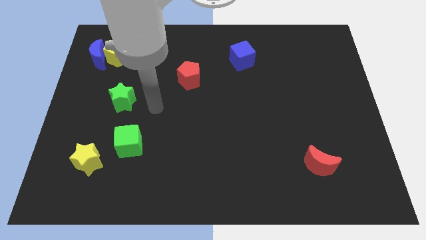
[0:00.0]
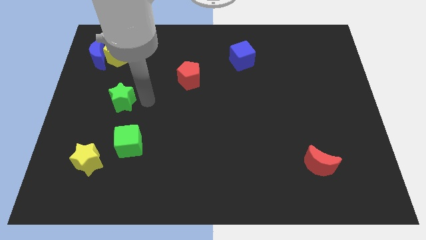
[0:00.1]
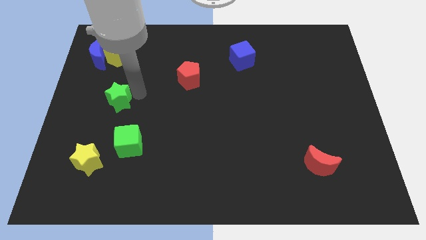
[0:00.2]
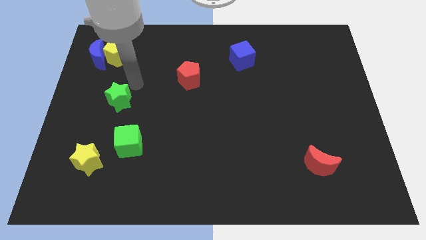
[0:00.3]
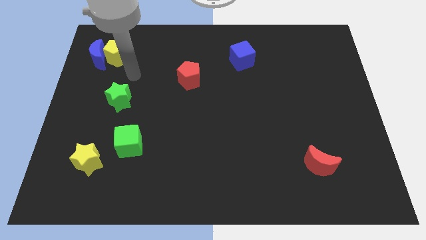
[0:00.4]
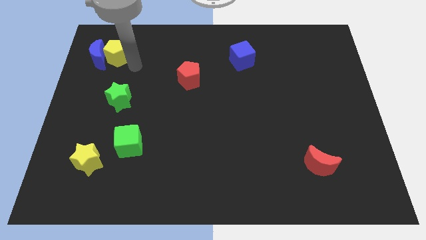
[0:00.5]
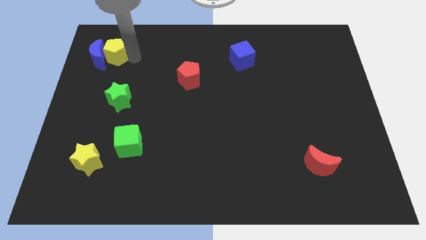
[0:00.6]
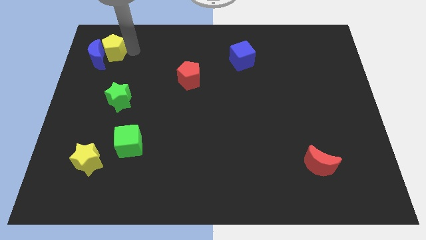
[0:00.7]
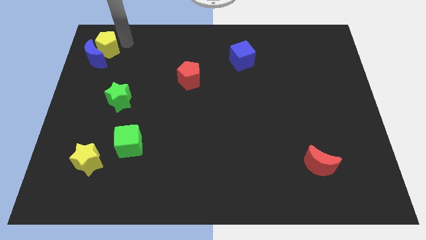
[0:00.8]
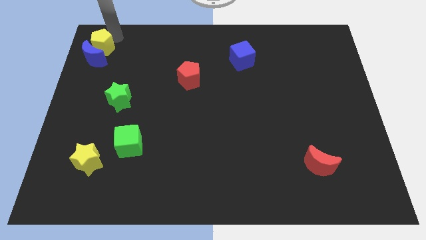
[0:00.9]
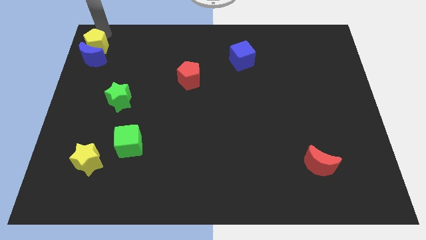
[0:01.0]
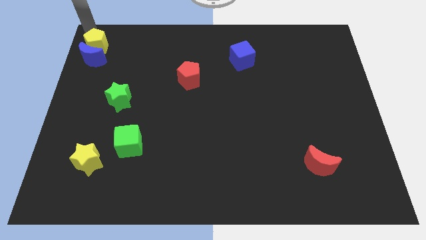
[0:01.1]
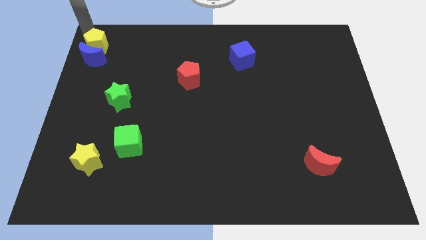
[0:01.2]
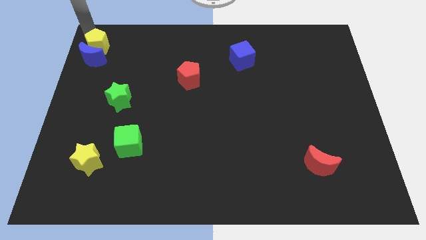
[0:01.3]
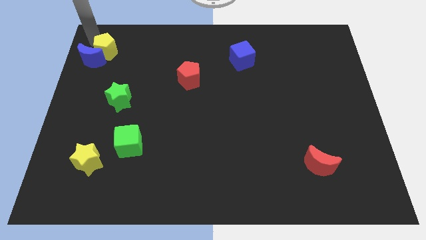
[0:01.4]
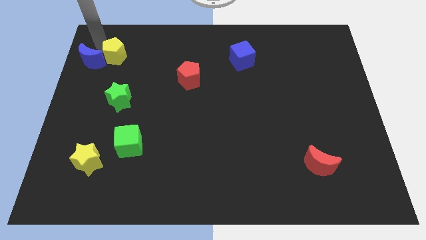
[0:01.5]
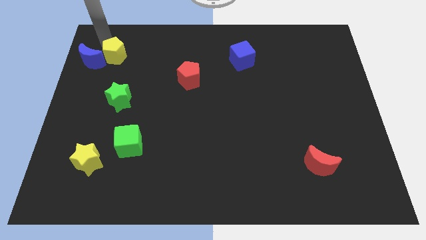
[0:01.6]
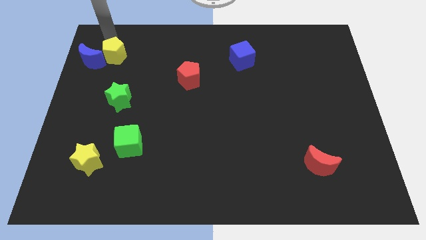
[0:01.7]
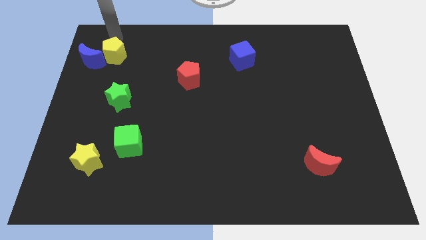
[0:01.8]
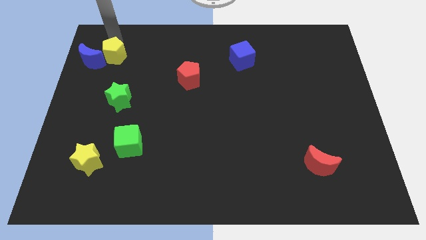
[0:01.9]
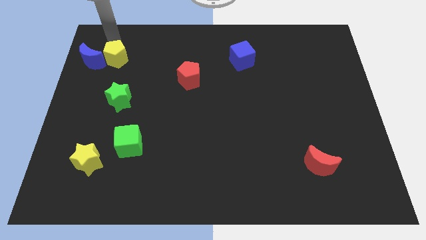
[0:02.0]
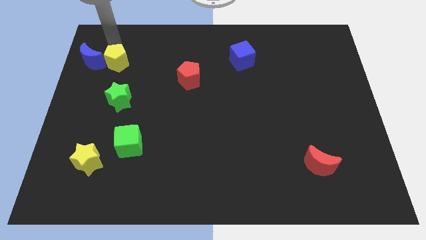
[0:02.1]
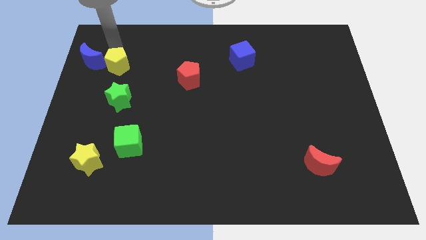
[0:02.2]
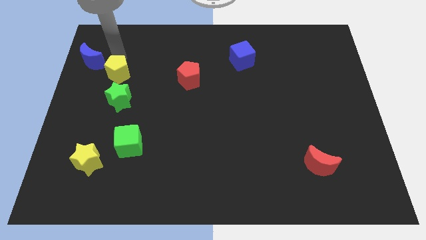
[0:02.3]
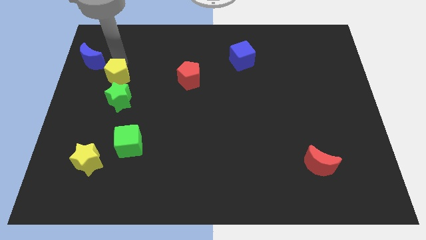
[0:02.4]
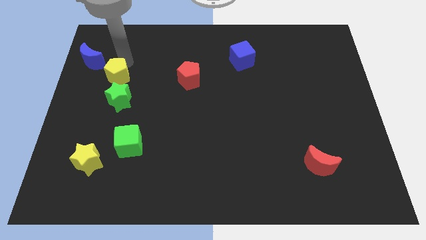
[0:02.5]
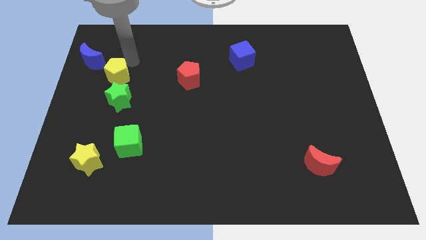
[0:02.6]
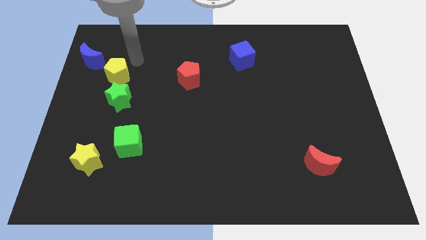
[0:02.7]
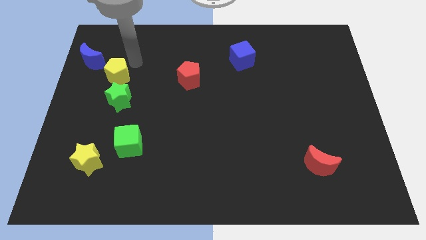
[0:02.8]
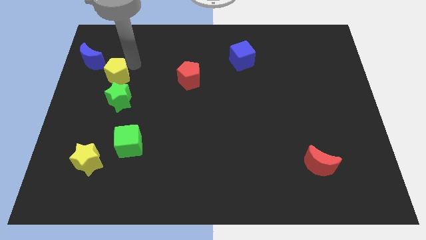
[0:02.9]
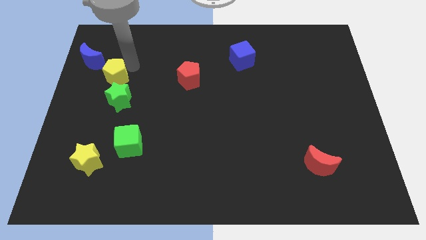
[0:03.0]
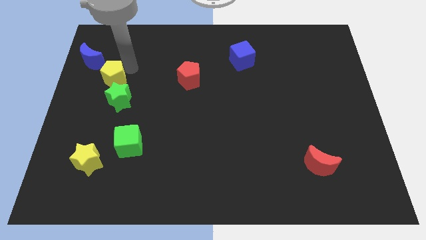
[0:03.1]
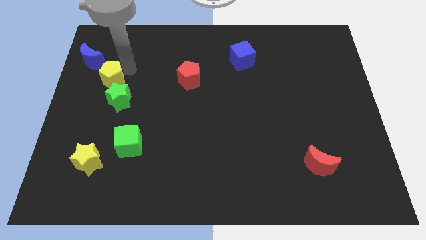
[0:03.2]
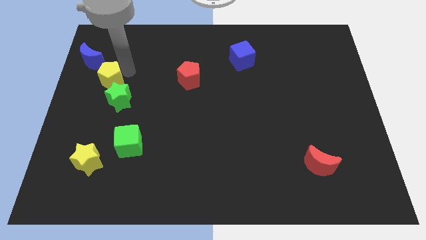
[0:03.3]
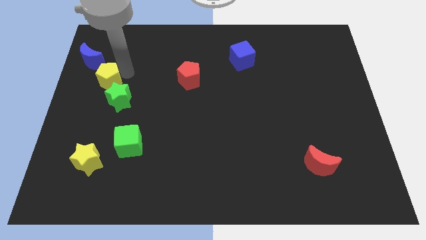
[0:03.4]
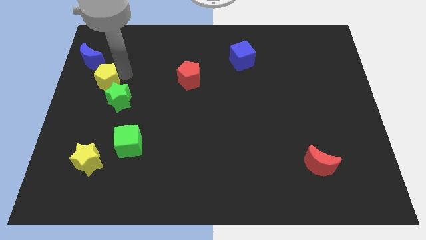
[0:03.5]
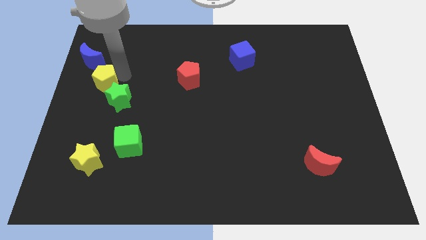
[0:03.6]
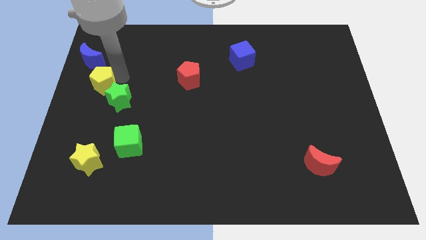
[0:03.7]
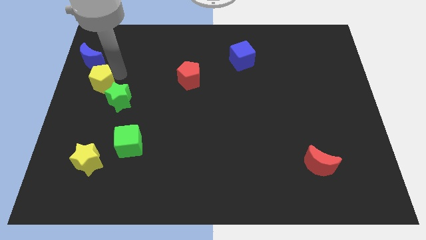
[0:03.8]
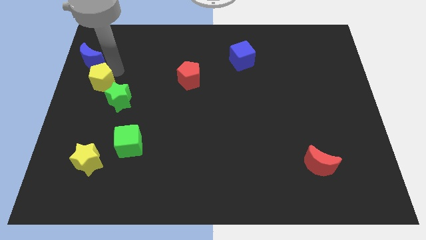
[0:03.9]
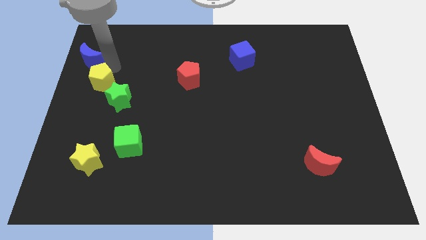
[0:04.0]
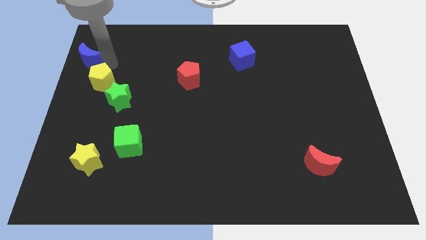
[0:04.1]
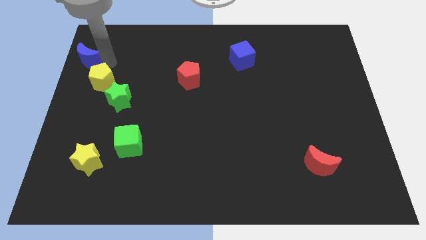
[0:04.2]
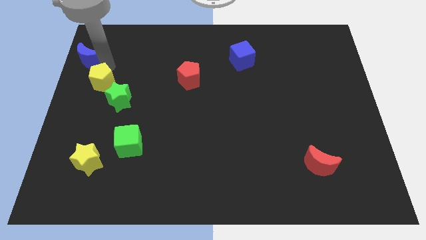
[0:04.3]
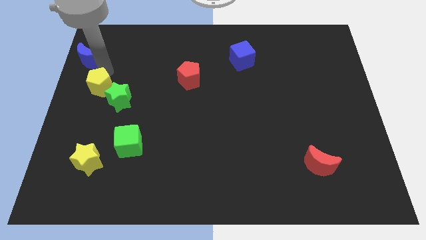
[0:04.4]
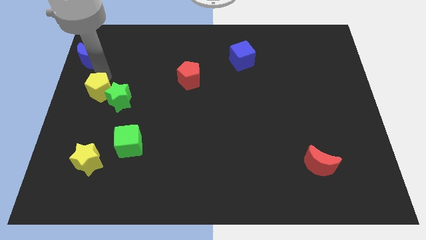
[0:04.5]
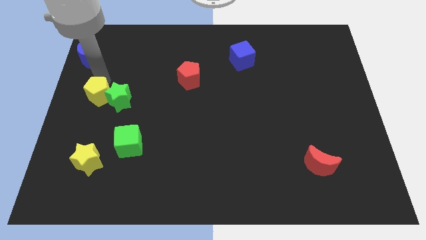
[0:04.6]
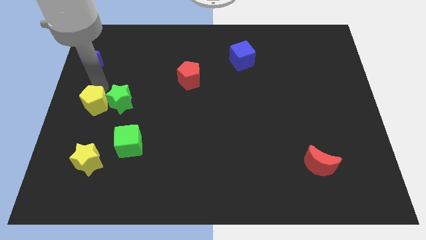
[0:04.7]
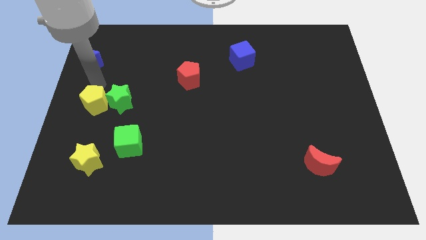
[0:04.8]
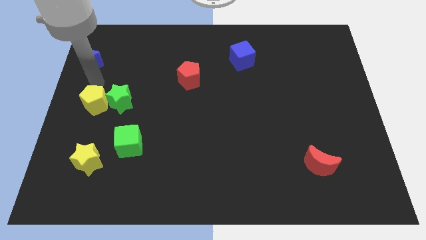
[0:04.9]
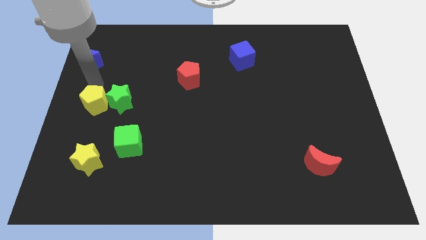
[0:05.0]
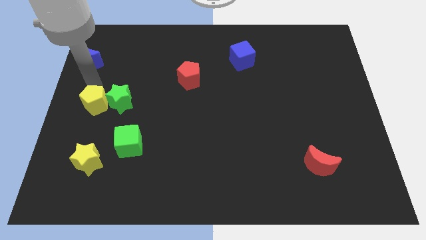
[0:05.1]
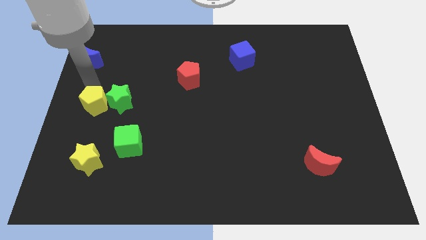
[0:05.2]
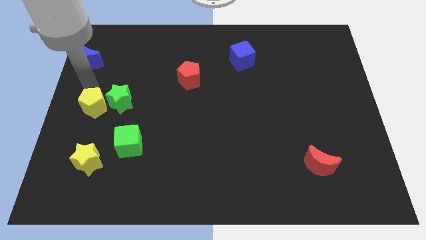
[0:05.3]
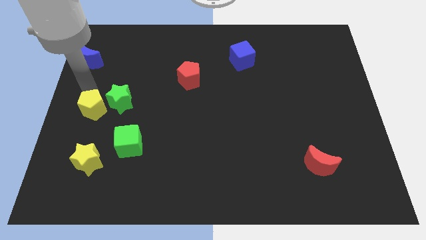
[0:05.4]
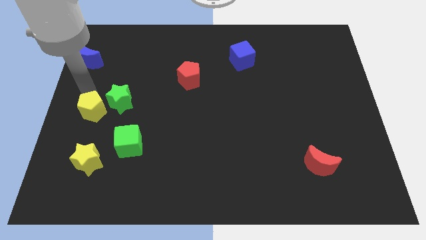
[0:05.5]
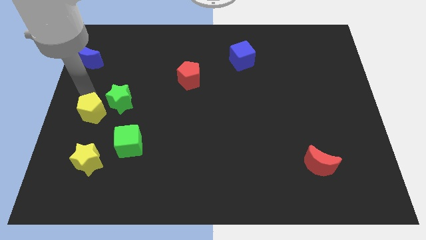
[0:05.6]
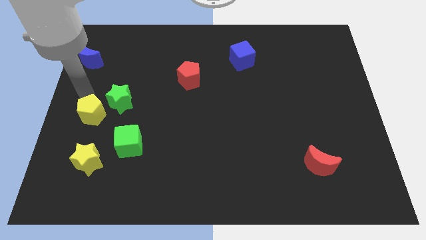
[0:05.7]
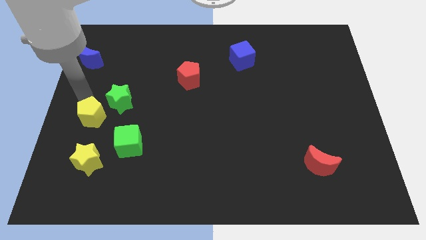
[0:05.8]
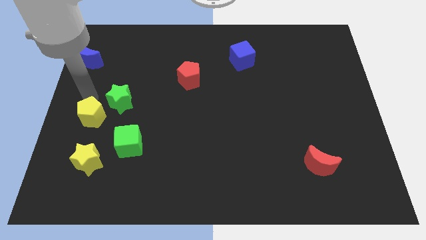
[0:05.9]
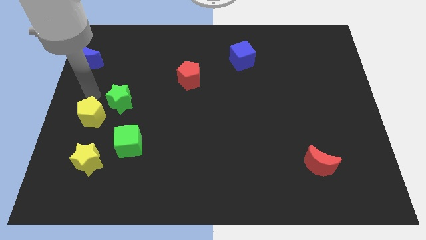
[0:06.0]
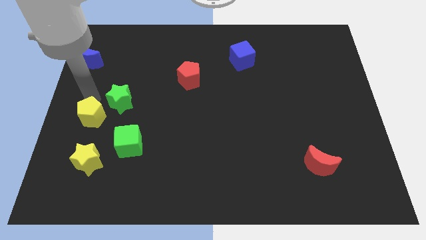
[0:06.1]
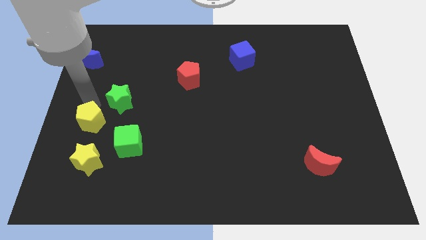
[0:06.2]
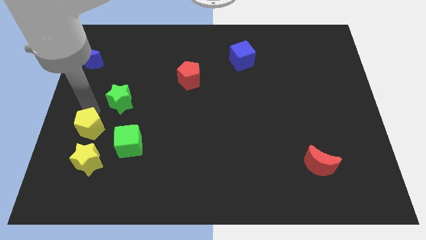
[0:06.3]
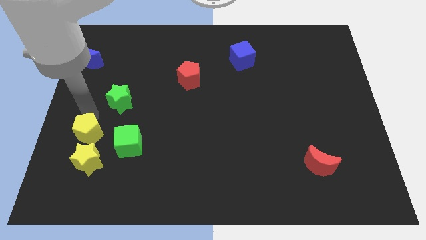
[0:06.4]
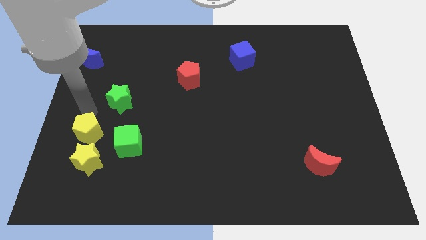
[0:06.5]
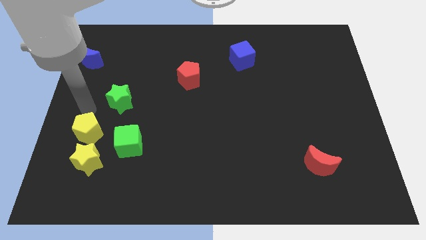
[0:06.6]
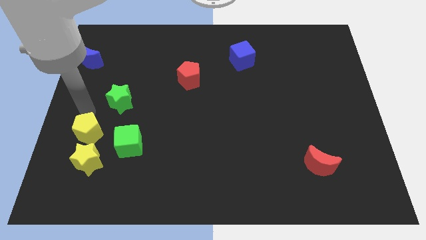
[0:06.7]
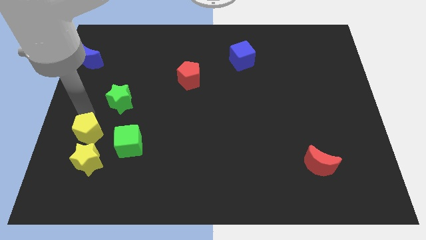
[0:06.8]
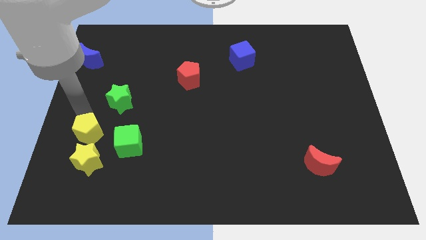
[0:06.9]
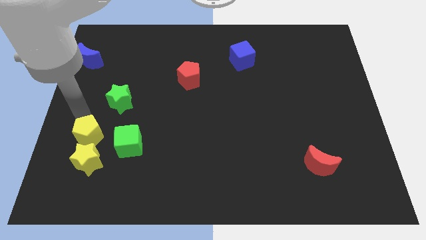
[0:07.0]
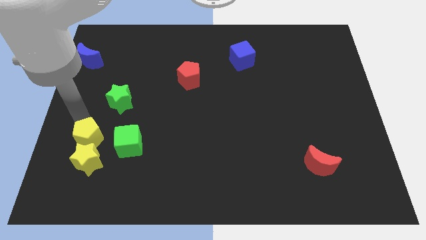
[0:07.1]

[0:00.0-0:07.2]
move the yellow pentagon close to the yellow star
